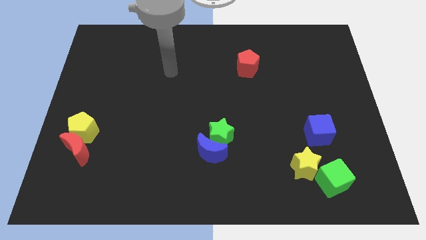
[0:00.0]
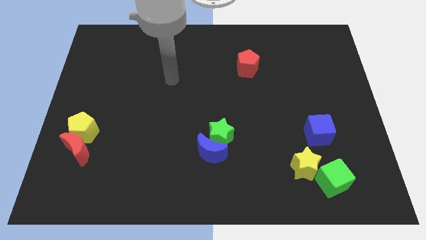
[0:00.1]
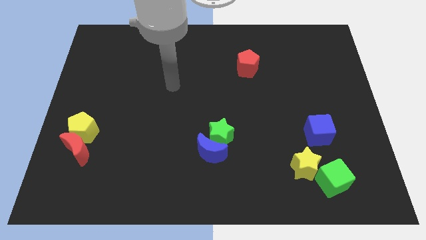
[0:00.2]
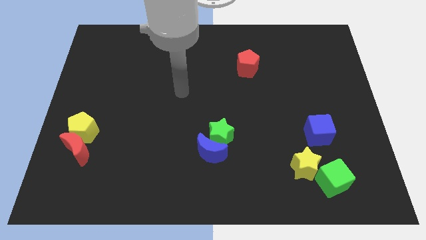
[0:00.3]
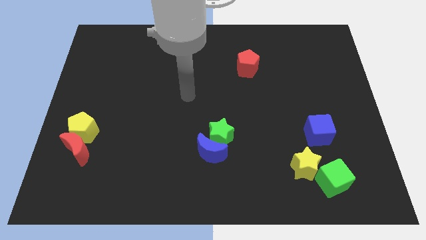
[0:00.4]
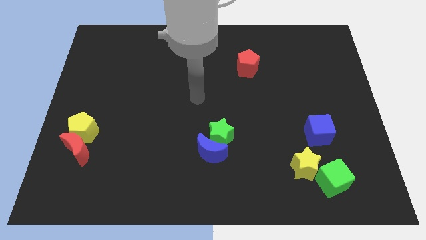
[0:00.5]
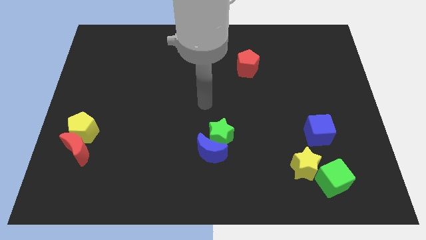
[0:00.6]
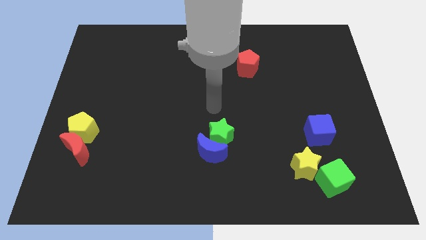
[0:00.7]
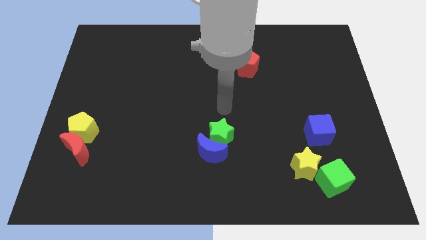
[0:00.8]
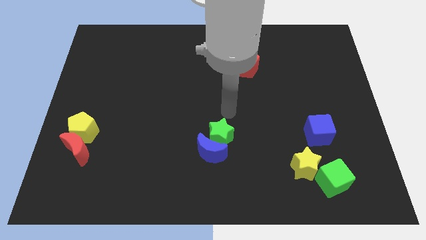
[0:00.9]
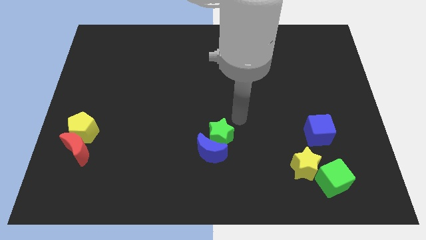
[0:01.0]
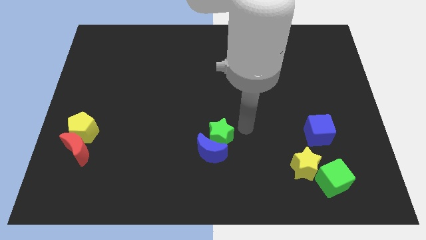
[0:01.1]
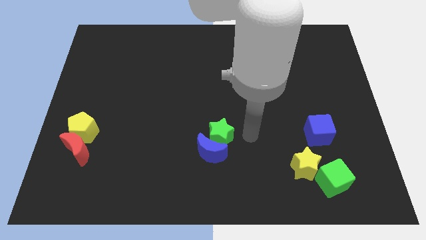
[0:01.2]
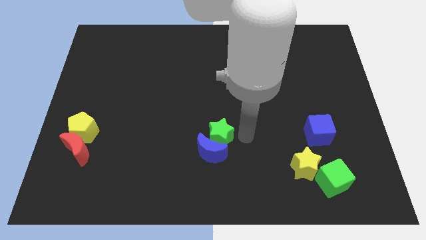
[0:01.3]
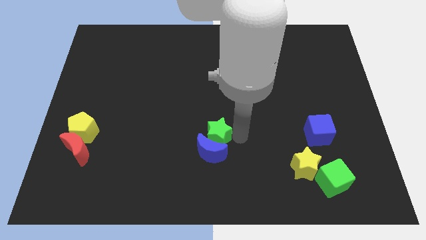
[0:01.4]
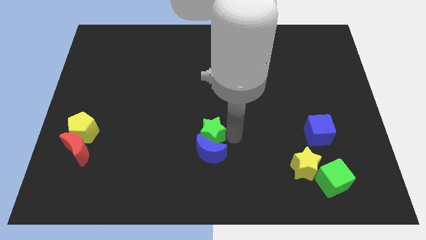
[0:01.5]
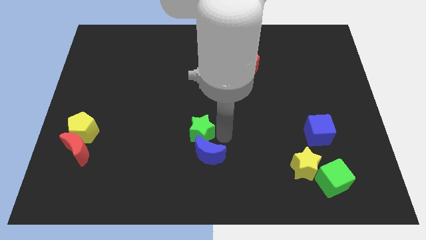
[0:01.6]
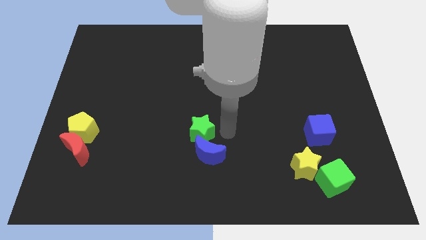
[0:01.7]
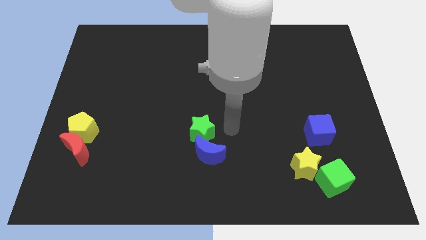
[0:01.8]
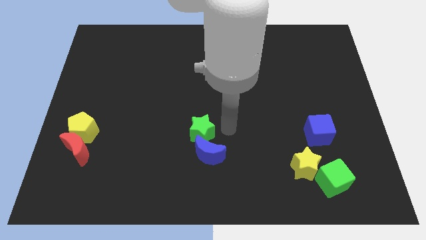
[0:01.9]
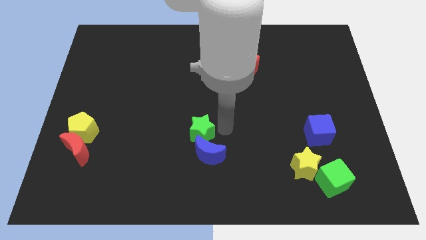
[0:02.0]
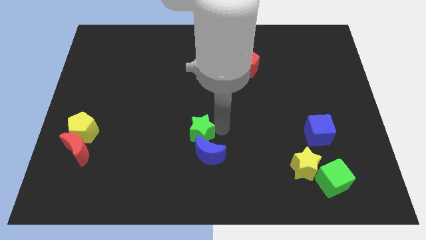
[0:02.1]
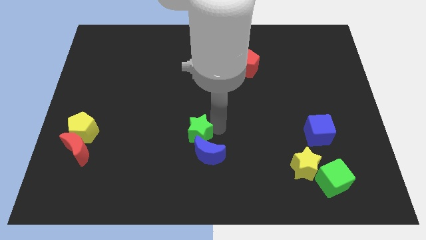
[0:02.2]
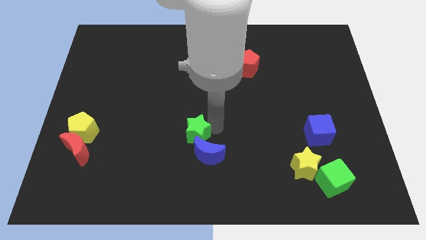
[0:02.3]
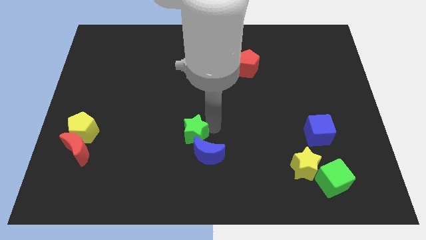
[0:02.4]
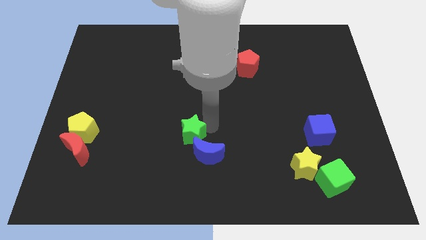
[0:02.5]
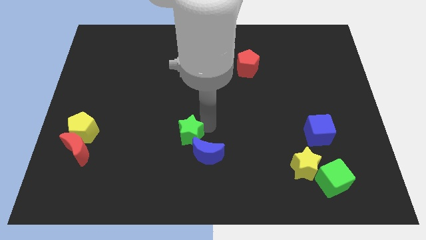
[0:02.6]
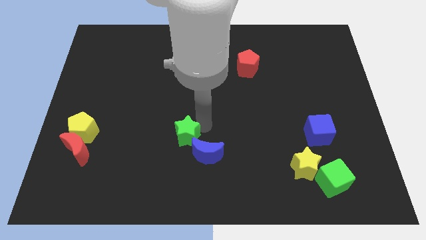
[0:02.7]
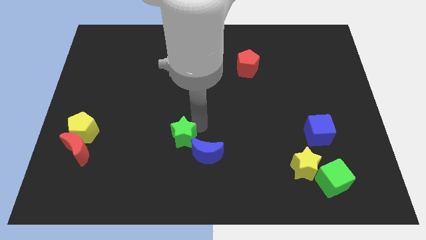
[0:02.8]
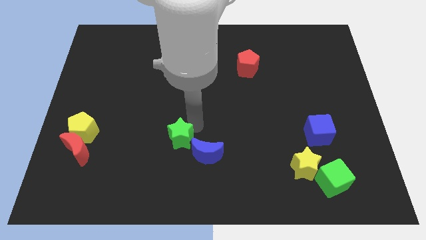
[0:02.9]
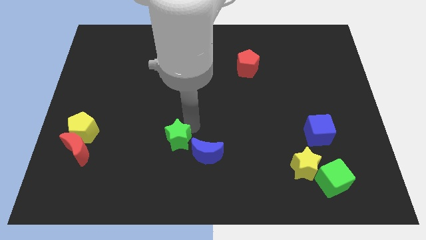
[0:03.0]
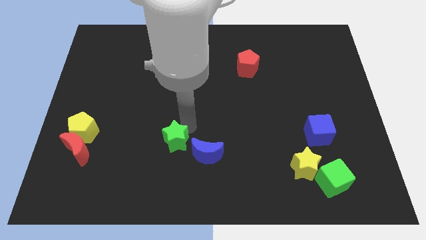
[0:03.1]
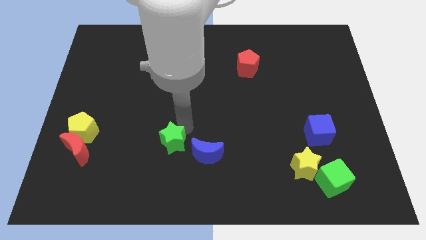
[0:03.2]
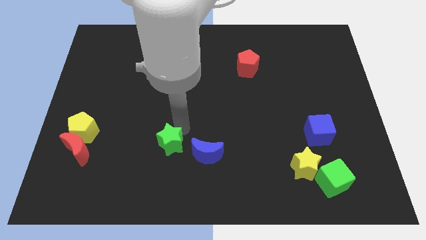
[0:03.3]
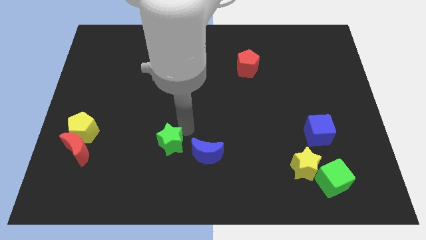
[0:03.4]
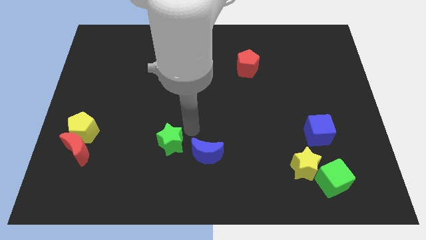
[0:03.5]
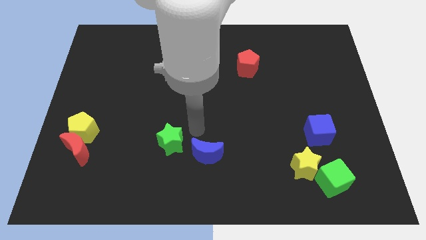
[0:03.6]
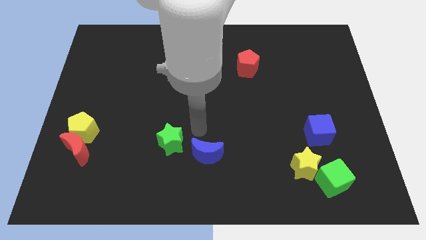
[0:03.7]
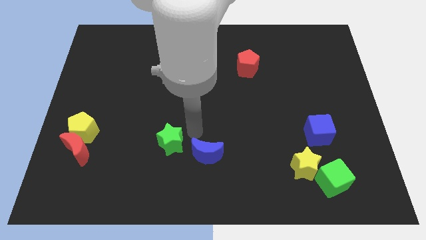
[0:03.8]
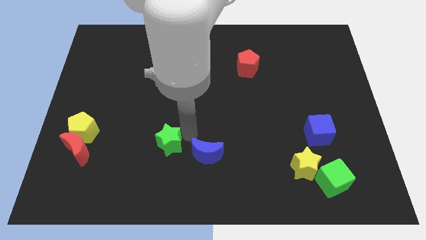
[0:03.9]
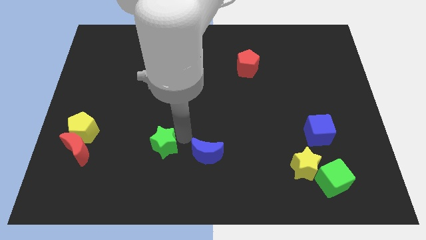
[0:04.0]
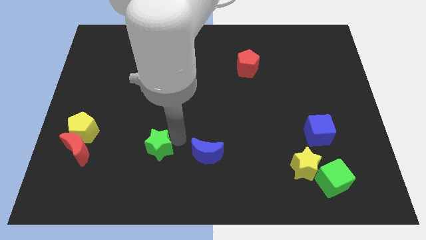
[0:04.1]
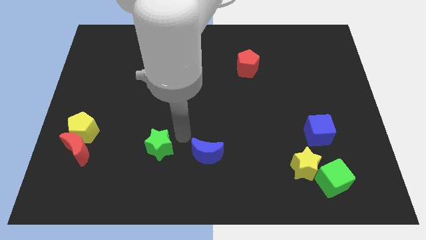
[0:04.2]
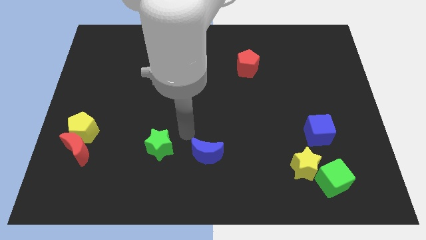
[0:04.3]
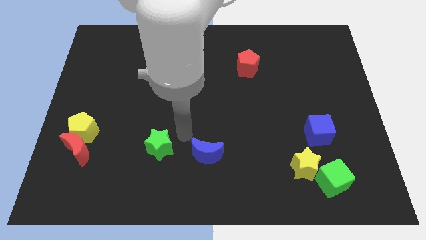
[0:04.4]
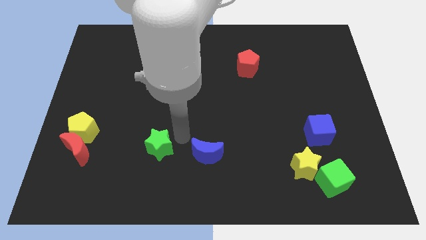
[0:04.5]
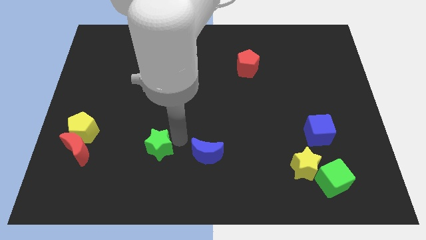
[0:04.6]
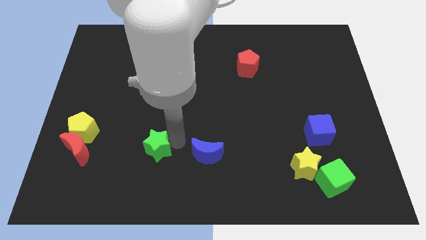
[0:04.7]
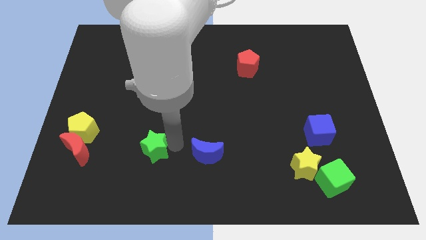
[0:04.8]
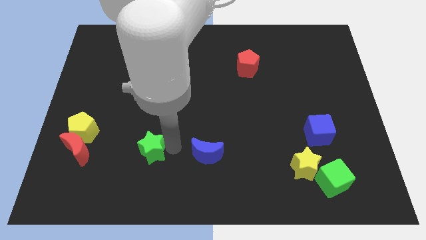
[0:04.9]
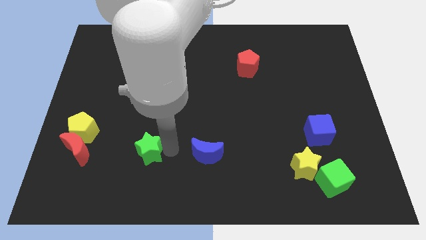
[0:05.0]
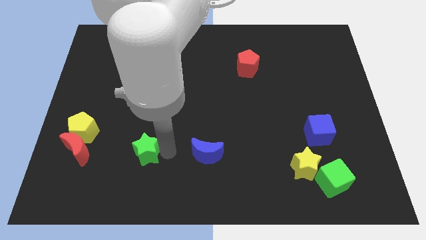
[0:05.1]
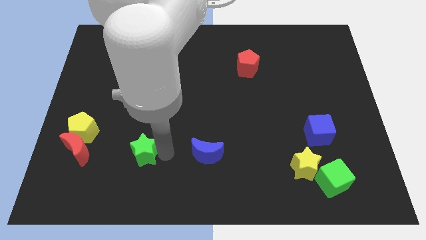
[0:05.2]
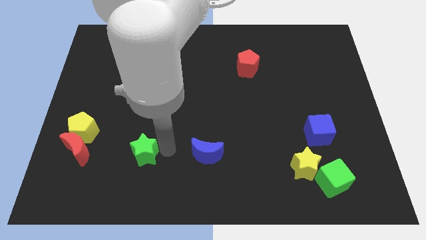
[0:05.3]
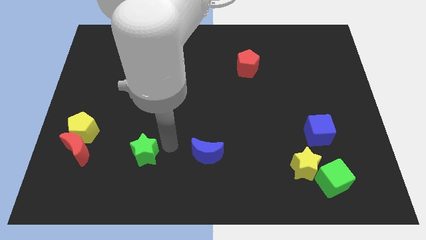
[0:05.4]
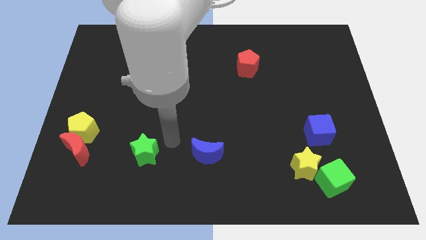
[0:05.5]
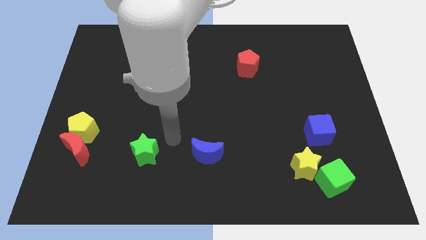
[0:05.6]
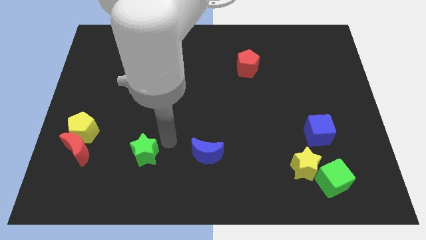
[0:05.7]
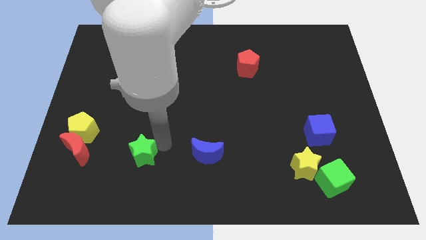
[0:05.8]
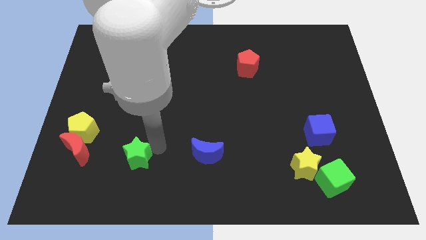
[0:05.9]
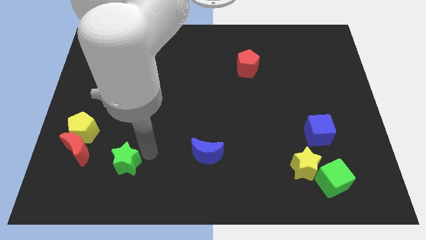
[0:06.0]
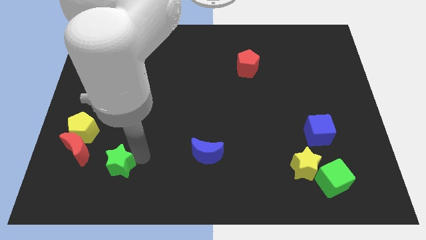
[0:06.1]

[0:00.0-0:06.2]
slide the green star diagonally down and to the right of the red moon

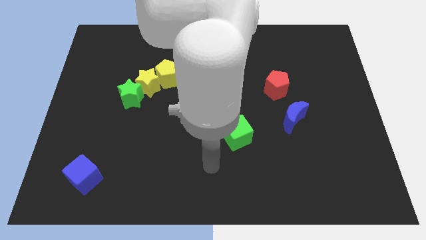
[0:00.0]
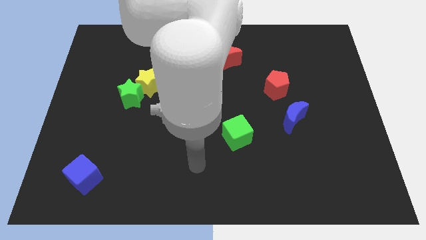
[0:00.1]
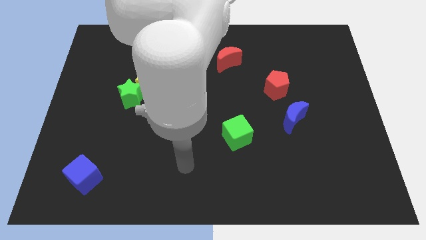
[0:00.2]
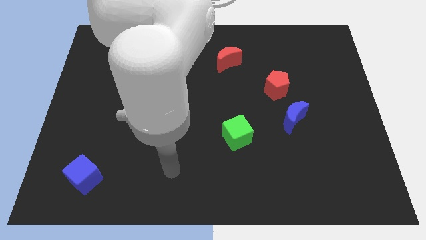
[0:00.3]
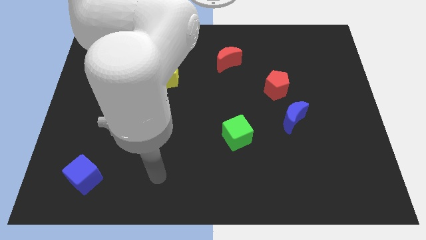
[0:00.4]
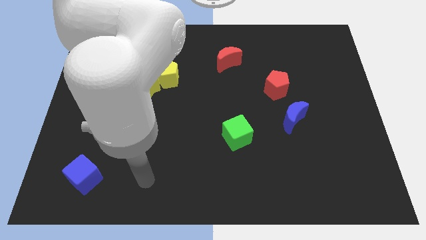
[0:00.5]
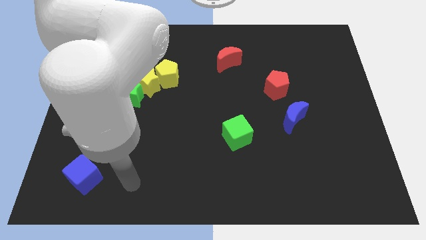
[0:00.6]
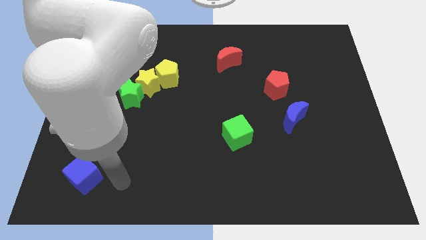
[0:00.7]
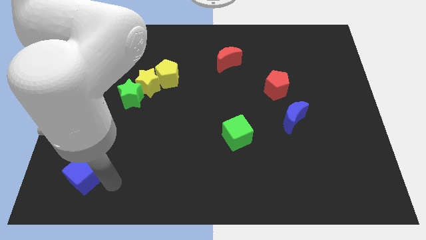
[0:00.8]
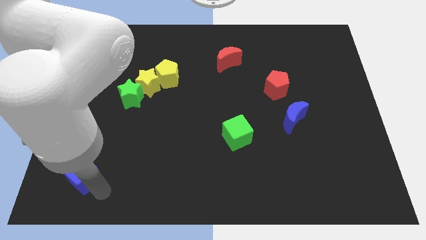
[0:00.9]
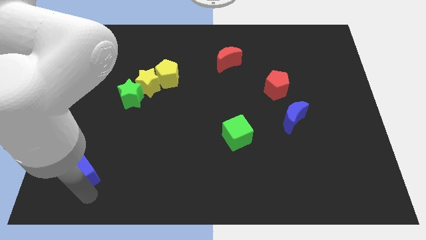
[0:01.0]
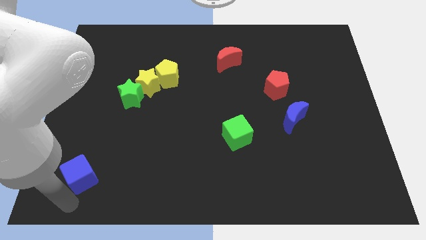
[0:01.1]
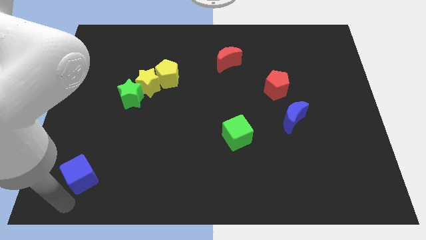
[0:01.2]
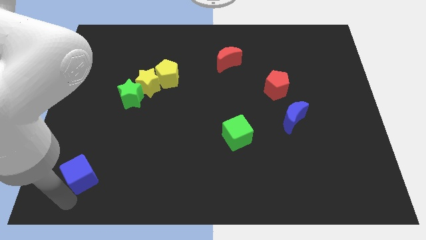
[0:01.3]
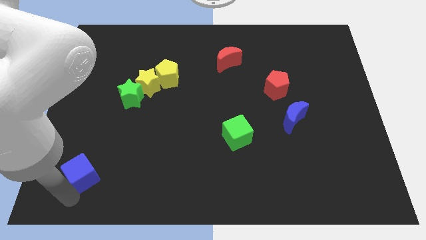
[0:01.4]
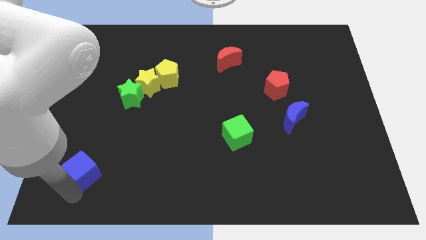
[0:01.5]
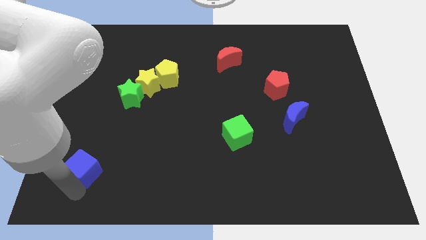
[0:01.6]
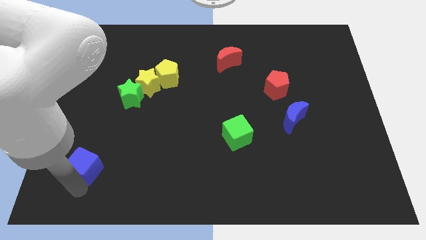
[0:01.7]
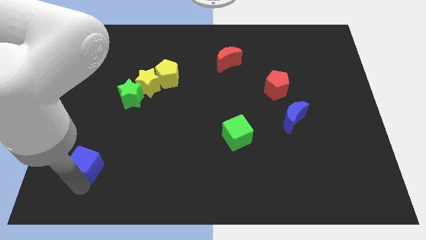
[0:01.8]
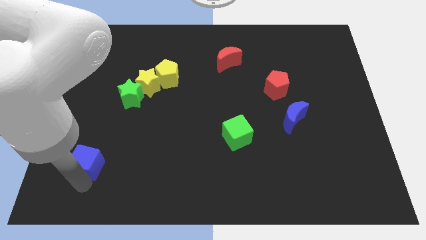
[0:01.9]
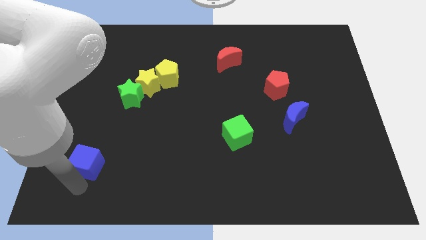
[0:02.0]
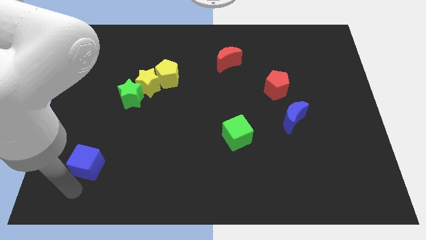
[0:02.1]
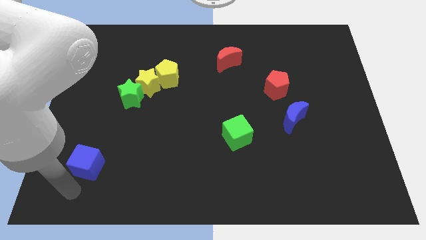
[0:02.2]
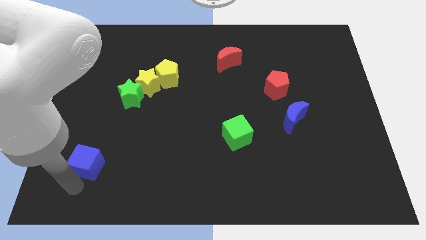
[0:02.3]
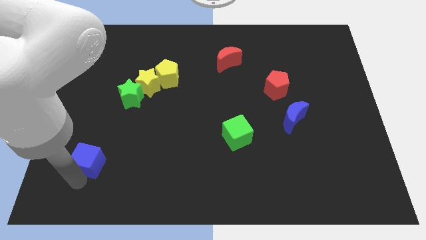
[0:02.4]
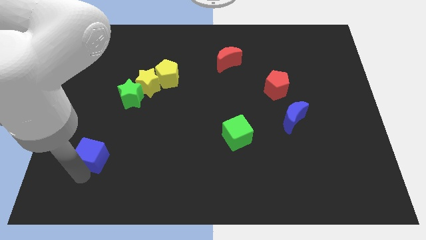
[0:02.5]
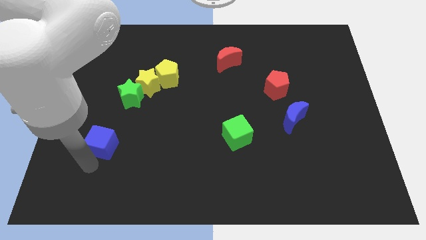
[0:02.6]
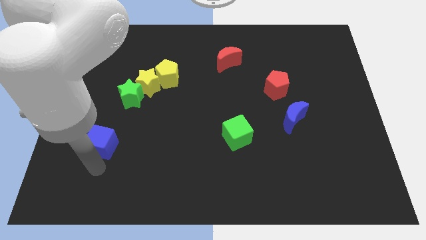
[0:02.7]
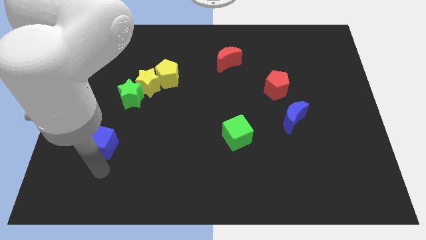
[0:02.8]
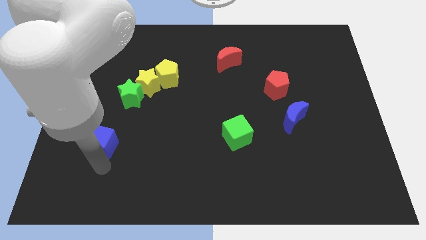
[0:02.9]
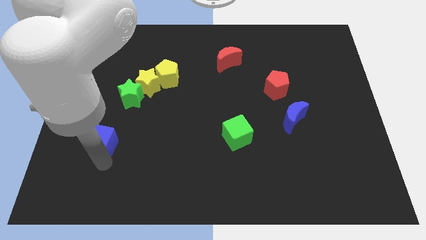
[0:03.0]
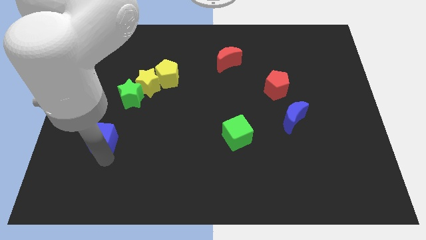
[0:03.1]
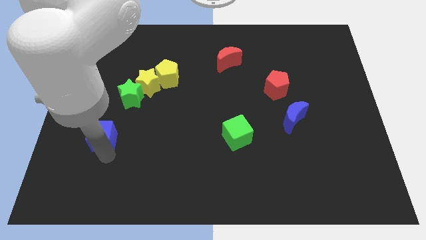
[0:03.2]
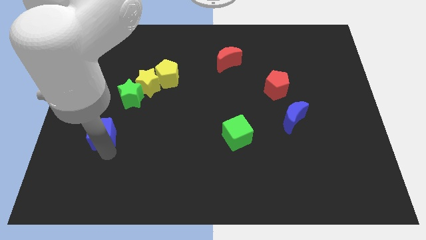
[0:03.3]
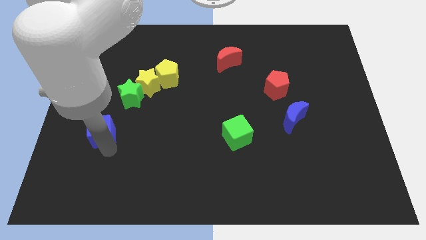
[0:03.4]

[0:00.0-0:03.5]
put the blue cube diagonally down and to the left of the green star
